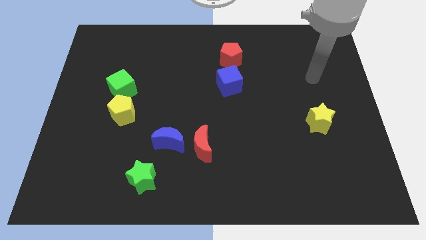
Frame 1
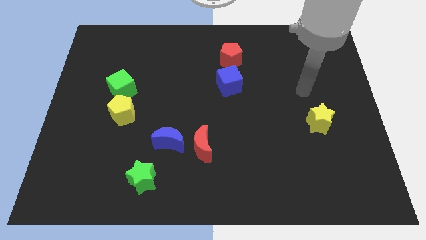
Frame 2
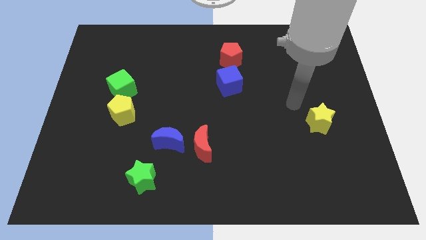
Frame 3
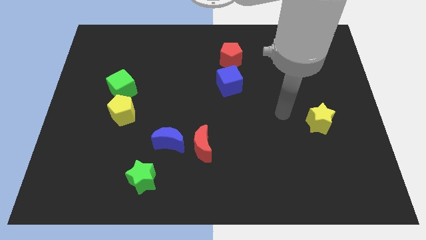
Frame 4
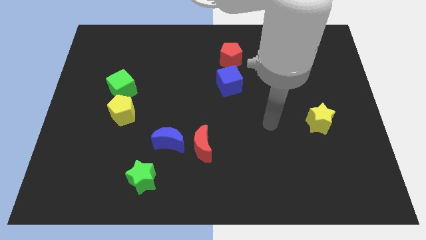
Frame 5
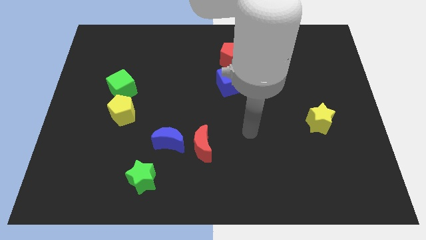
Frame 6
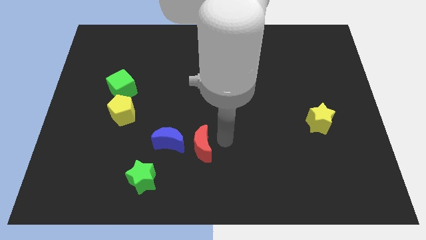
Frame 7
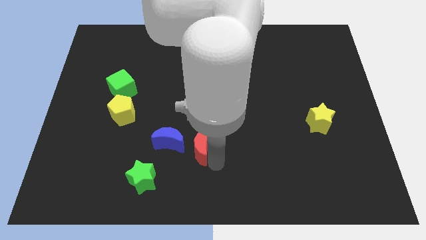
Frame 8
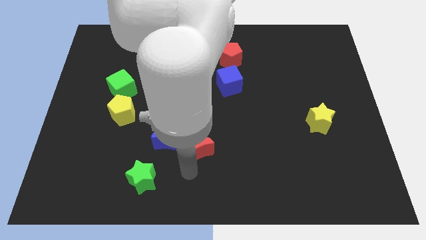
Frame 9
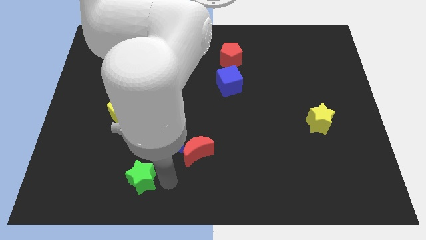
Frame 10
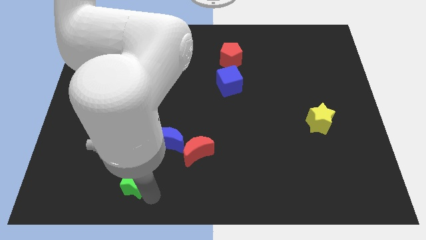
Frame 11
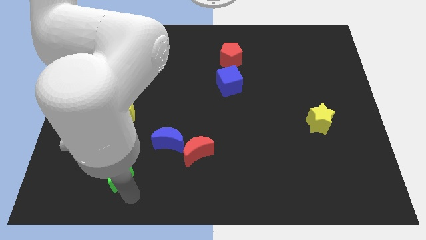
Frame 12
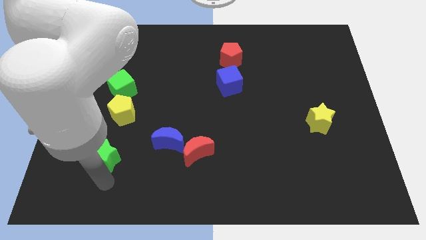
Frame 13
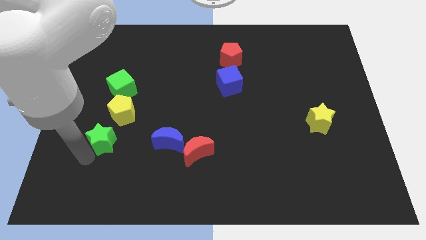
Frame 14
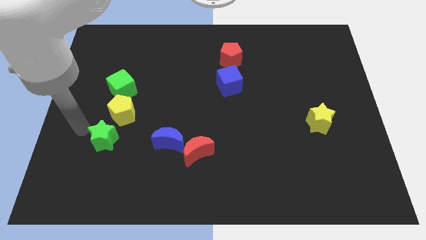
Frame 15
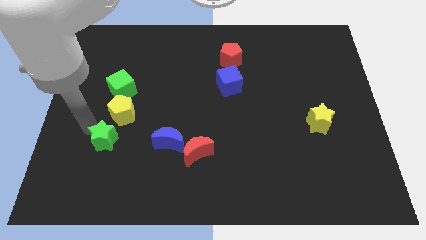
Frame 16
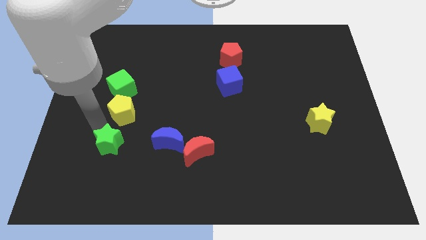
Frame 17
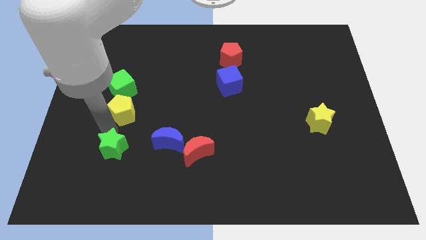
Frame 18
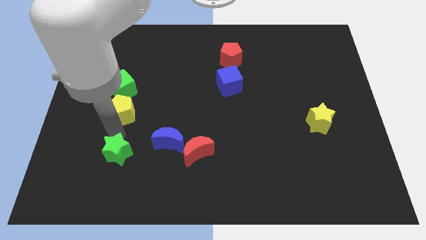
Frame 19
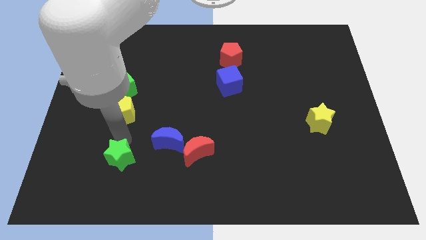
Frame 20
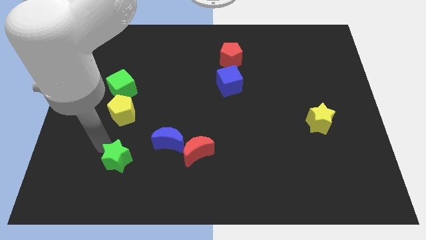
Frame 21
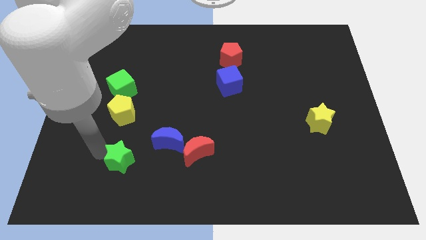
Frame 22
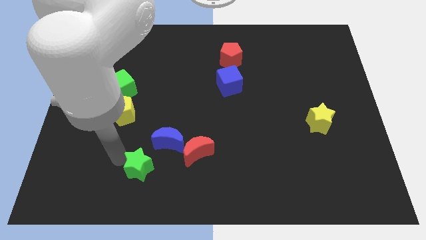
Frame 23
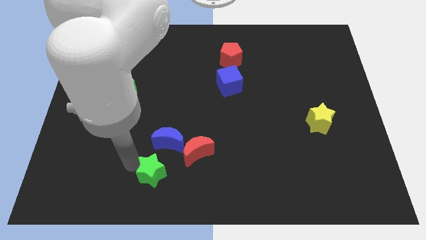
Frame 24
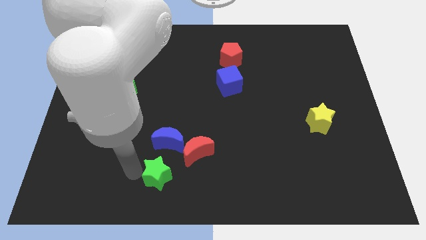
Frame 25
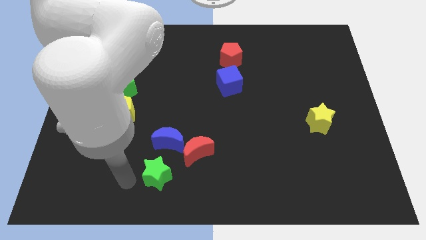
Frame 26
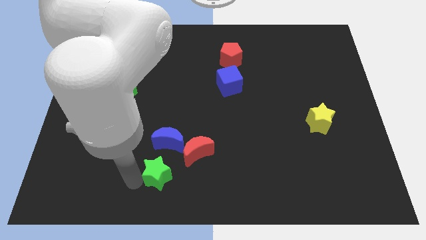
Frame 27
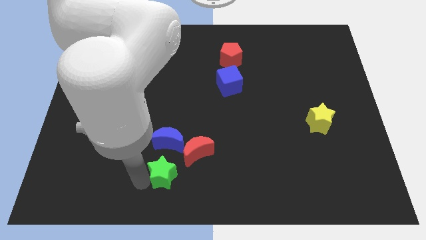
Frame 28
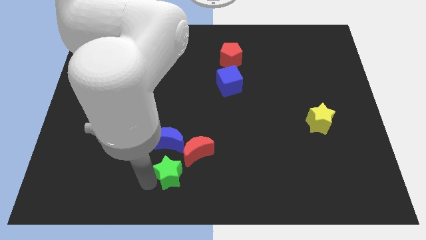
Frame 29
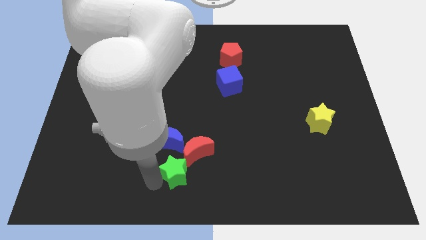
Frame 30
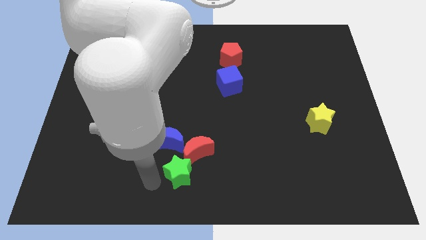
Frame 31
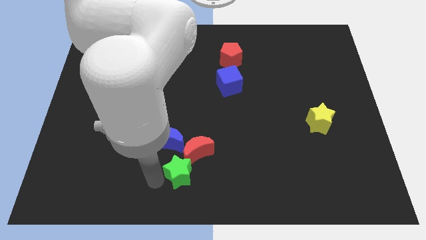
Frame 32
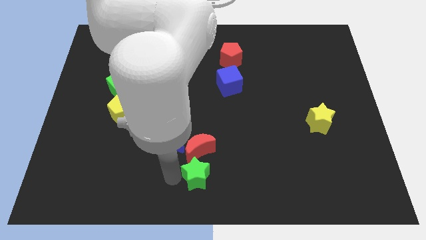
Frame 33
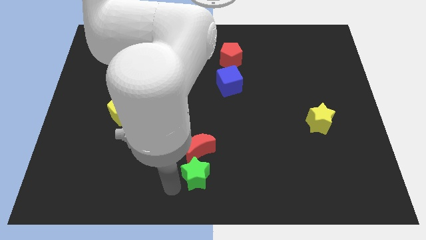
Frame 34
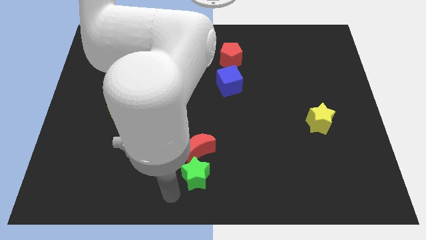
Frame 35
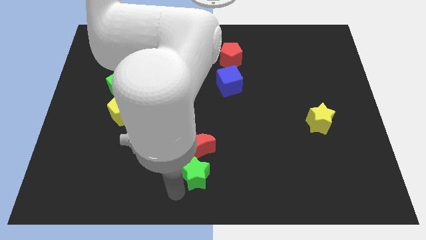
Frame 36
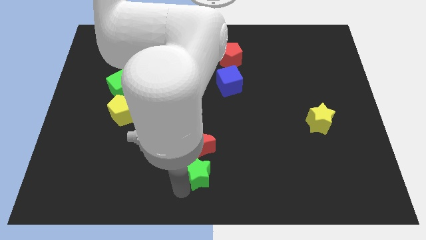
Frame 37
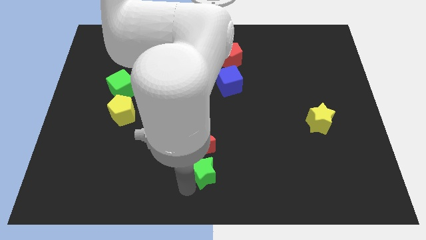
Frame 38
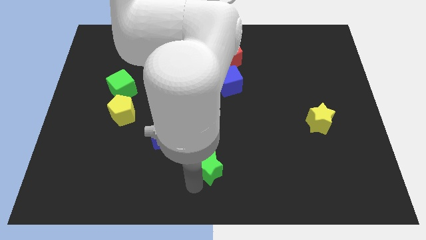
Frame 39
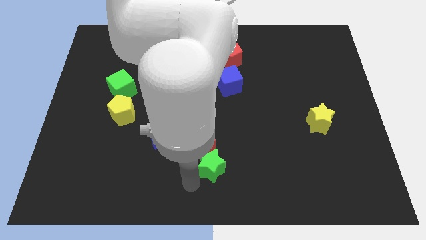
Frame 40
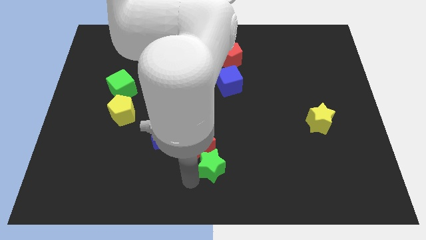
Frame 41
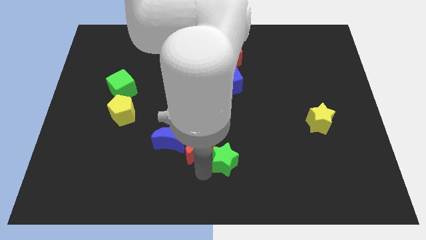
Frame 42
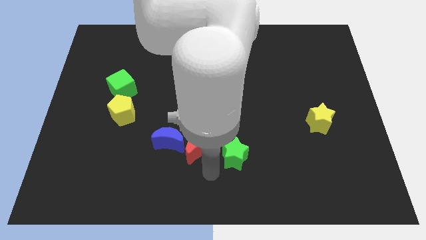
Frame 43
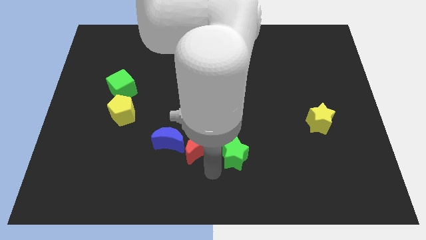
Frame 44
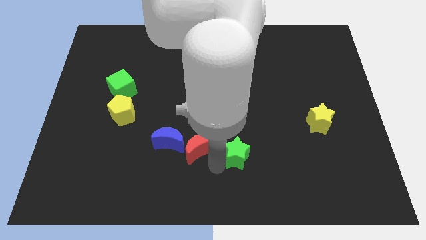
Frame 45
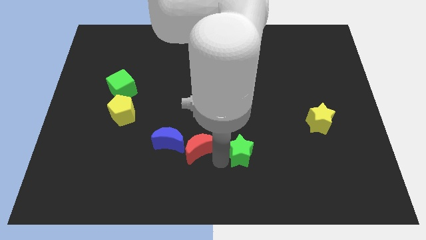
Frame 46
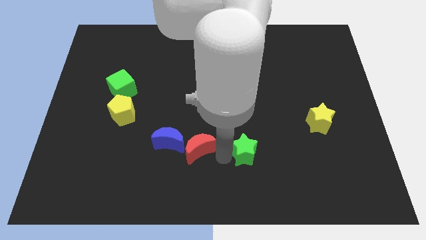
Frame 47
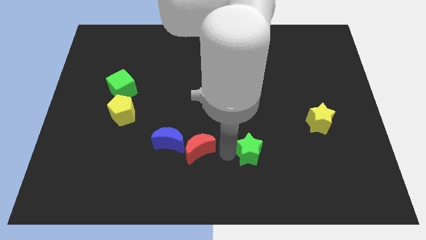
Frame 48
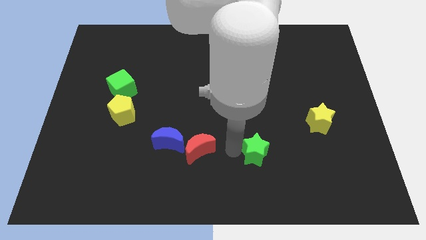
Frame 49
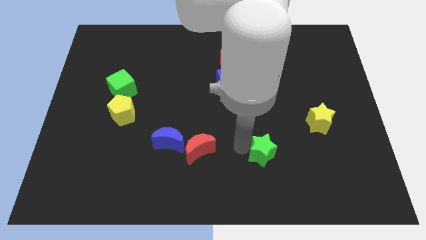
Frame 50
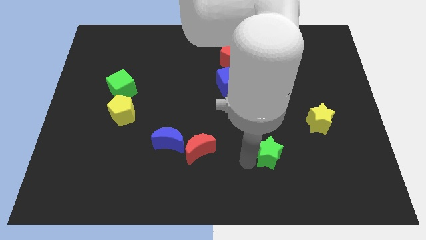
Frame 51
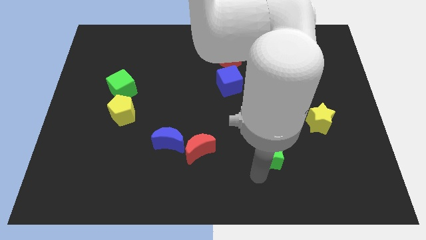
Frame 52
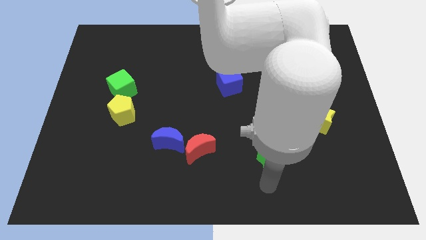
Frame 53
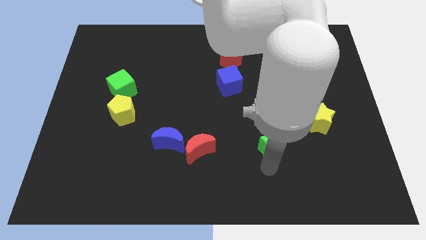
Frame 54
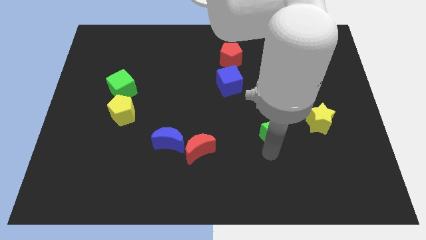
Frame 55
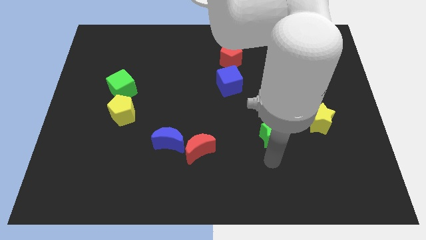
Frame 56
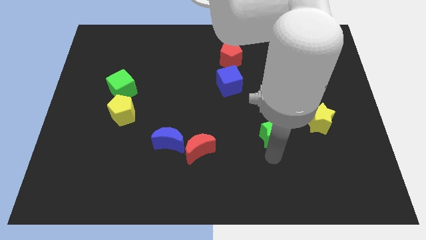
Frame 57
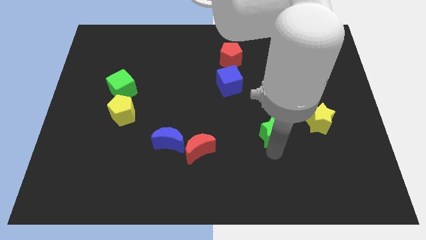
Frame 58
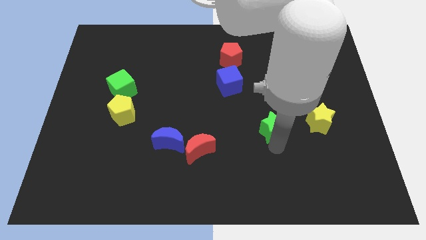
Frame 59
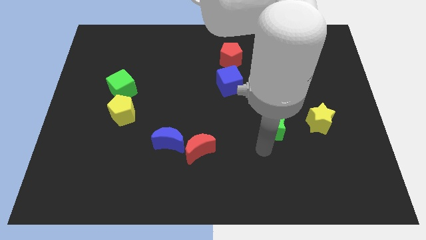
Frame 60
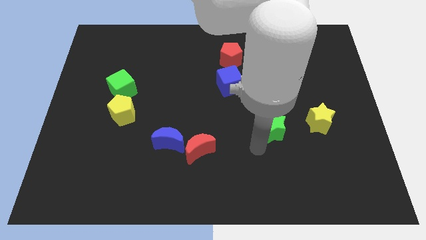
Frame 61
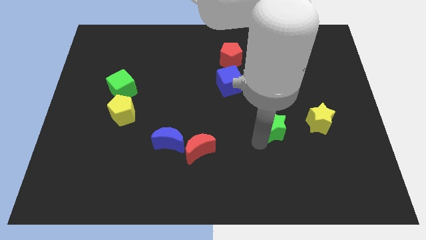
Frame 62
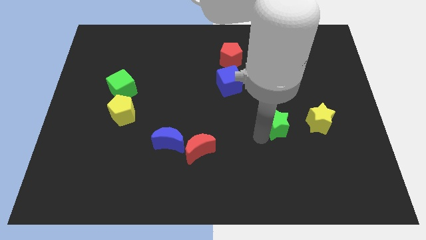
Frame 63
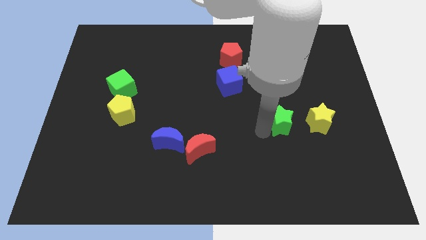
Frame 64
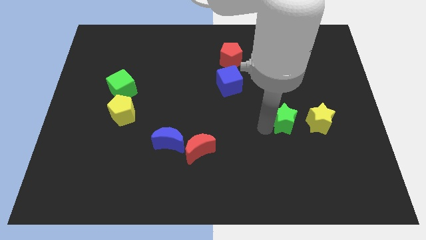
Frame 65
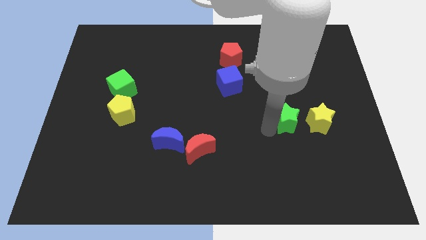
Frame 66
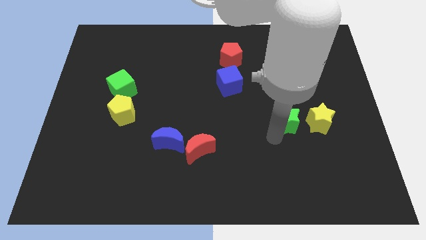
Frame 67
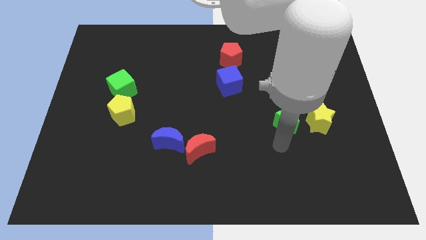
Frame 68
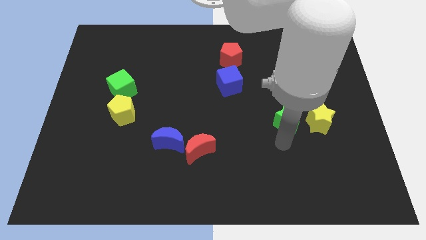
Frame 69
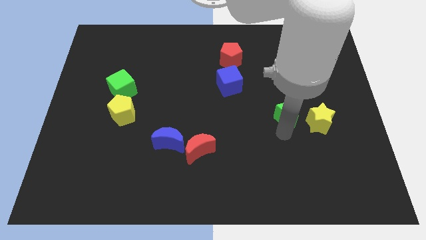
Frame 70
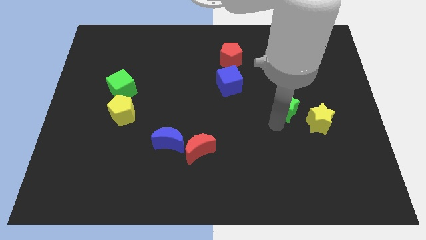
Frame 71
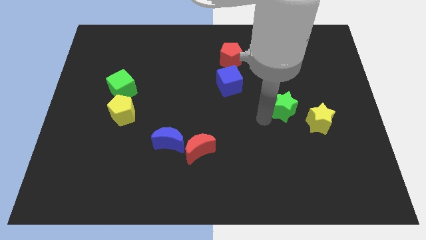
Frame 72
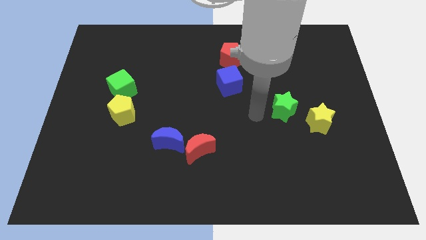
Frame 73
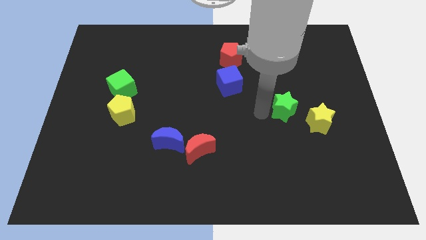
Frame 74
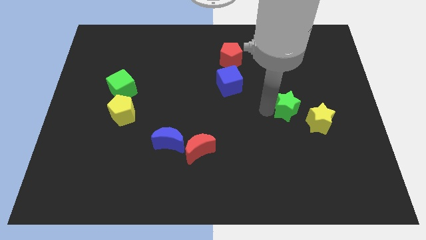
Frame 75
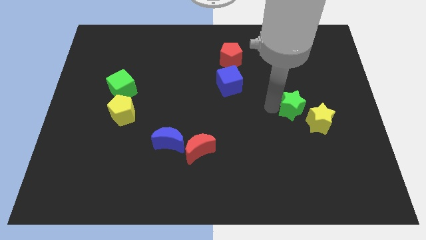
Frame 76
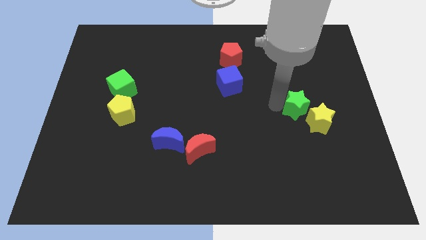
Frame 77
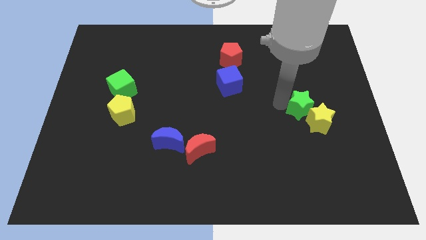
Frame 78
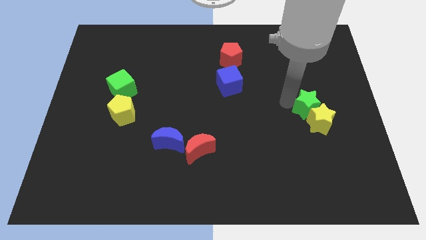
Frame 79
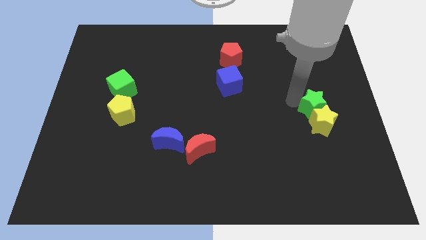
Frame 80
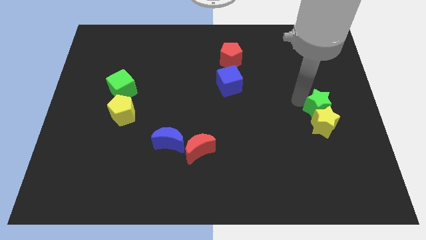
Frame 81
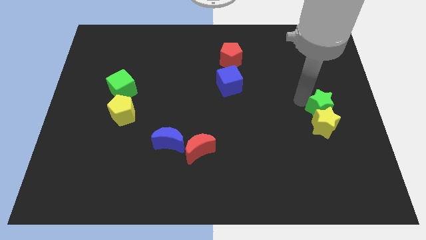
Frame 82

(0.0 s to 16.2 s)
put the green star to the center right
